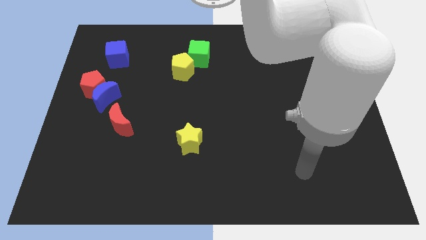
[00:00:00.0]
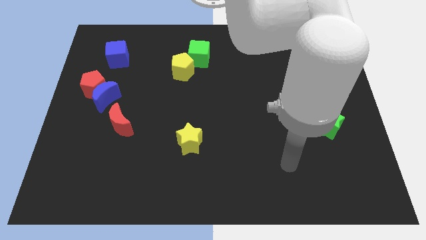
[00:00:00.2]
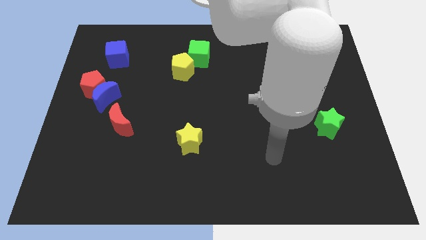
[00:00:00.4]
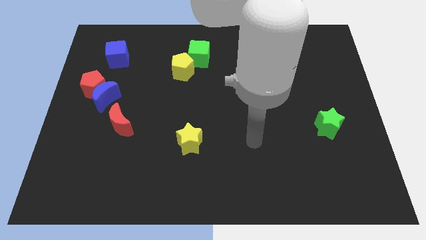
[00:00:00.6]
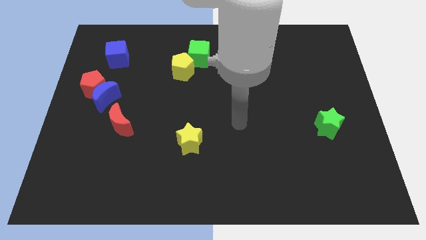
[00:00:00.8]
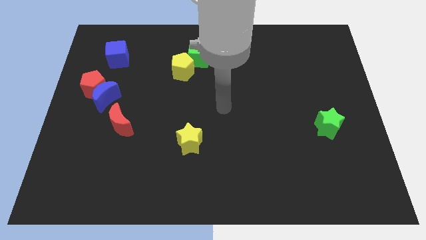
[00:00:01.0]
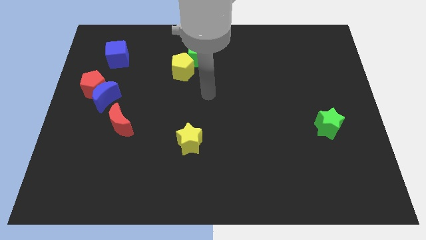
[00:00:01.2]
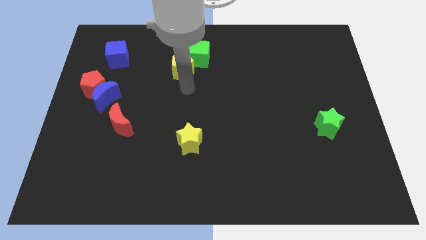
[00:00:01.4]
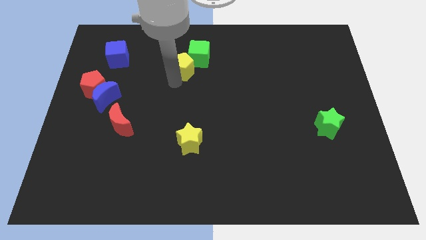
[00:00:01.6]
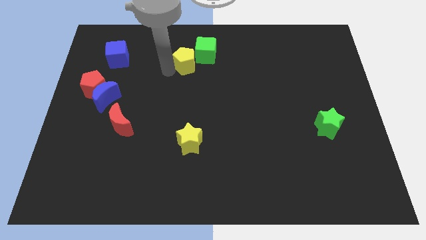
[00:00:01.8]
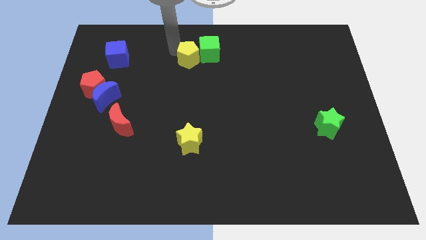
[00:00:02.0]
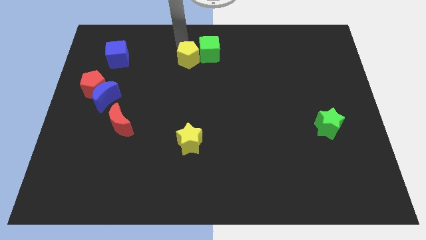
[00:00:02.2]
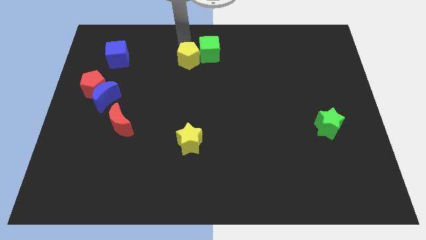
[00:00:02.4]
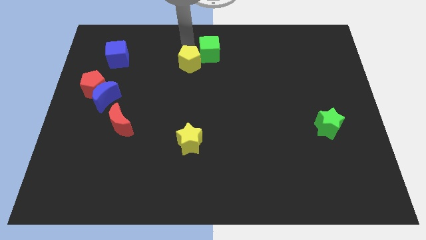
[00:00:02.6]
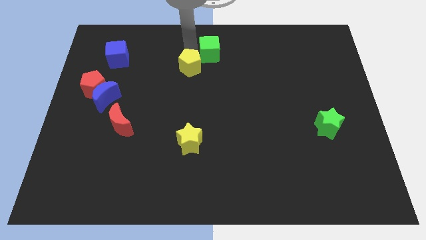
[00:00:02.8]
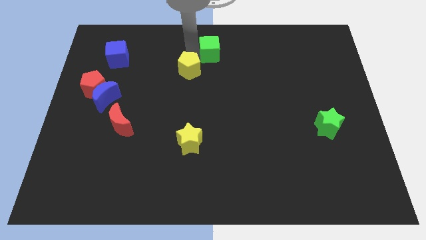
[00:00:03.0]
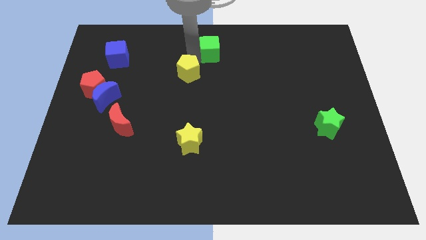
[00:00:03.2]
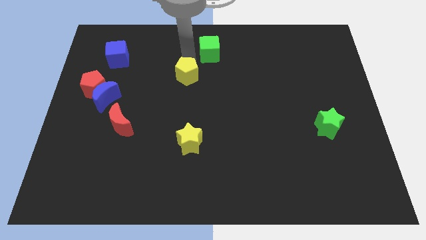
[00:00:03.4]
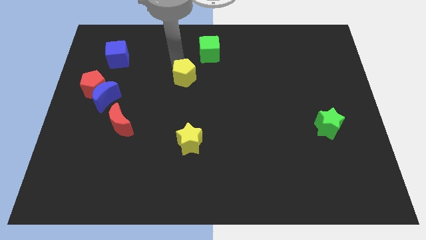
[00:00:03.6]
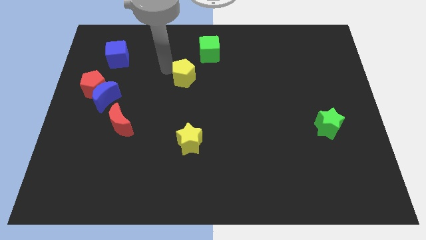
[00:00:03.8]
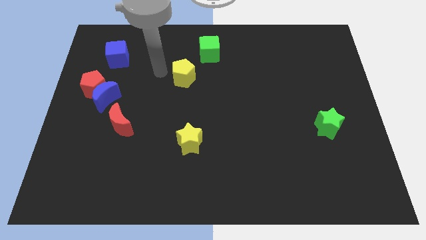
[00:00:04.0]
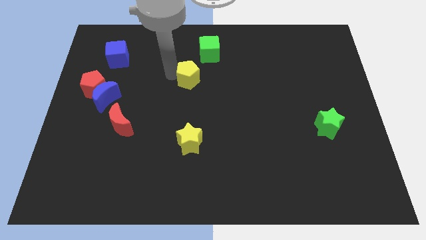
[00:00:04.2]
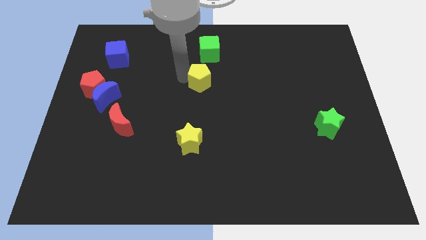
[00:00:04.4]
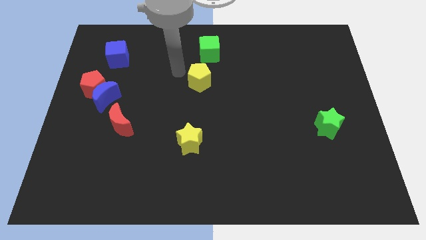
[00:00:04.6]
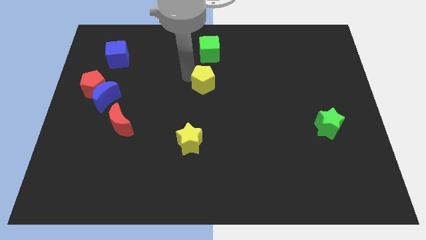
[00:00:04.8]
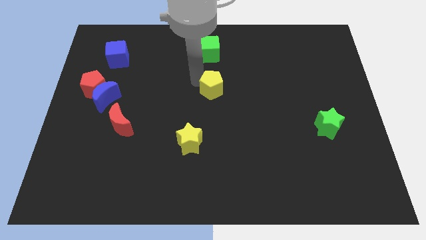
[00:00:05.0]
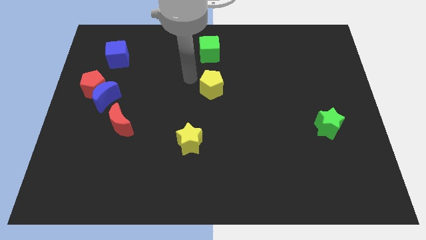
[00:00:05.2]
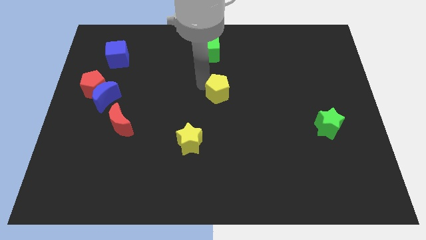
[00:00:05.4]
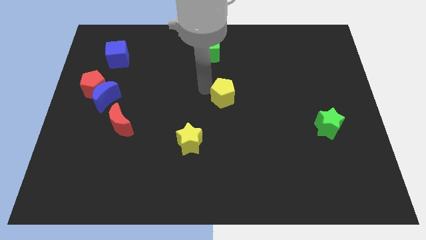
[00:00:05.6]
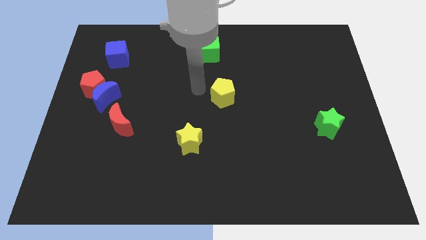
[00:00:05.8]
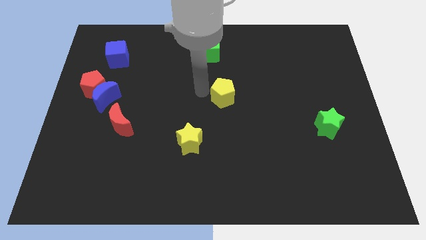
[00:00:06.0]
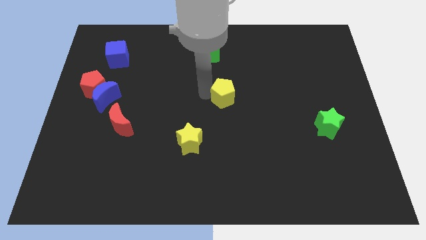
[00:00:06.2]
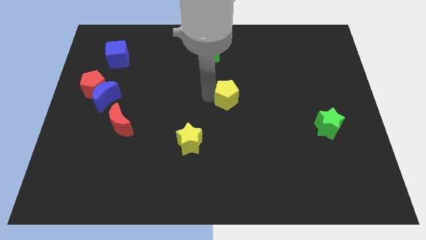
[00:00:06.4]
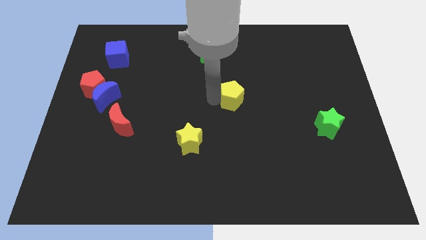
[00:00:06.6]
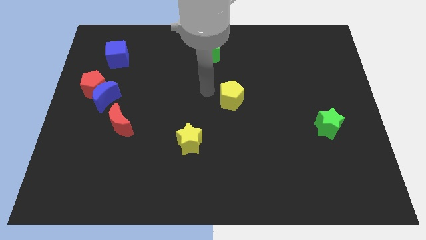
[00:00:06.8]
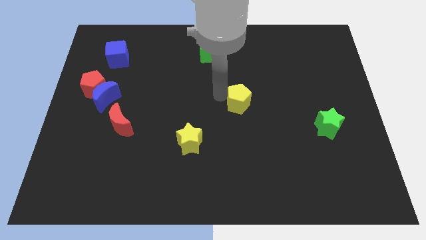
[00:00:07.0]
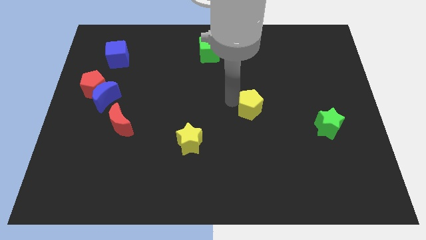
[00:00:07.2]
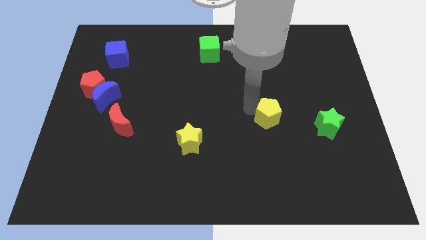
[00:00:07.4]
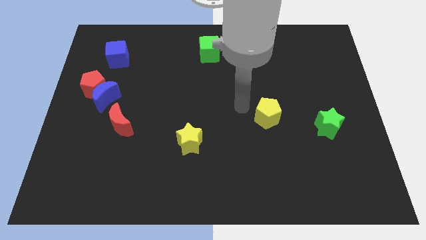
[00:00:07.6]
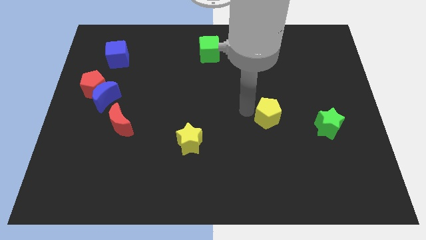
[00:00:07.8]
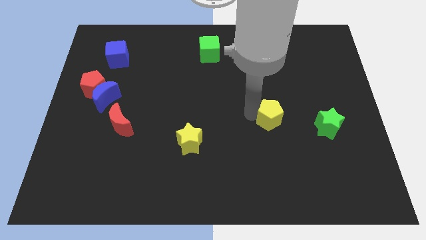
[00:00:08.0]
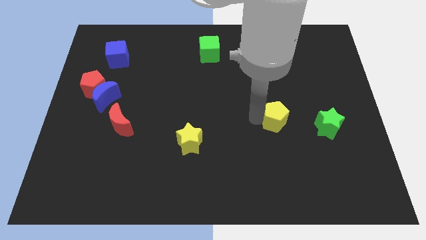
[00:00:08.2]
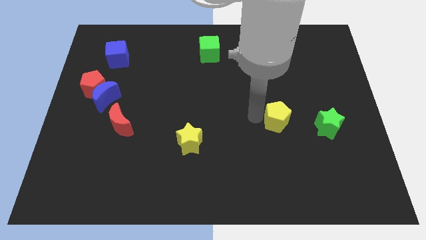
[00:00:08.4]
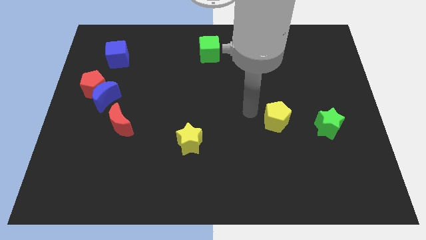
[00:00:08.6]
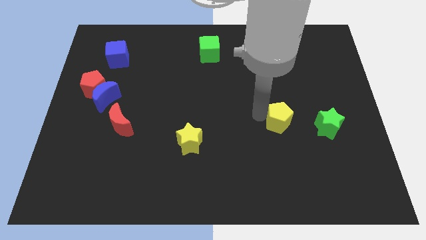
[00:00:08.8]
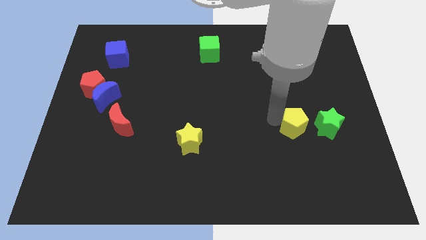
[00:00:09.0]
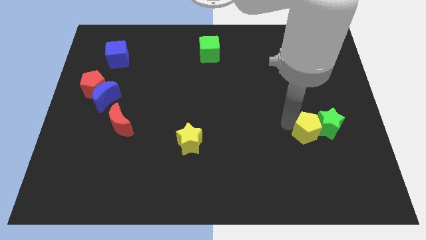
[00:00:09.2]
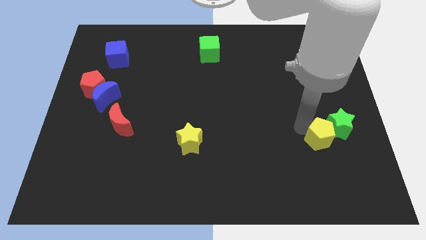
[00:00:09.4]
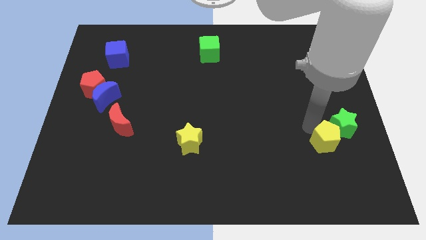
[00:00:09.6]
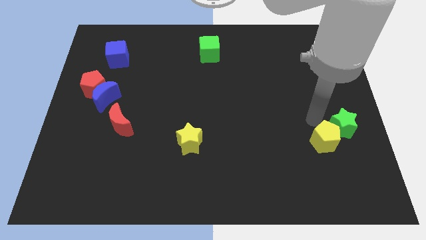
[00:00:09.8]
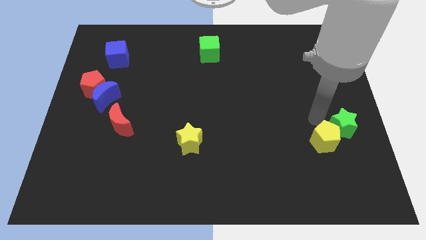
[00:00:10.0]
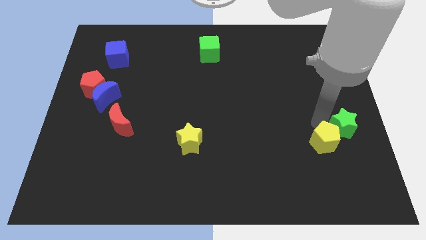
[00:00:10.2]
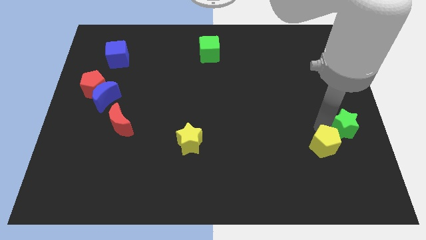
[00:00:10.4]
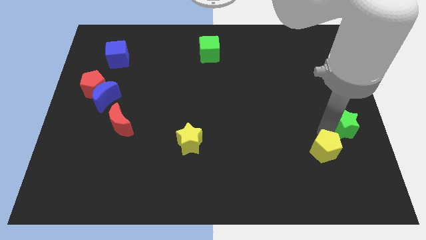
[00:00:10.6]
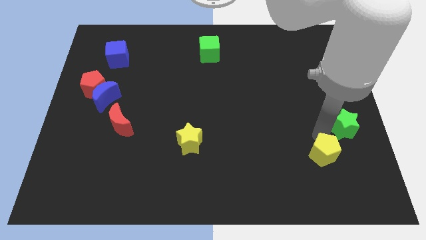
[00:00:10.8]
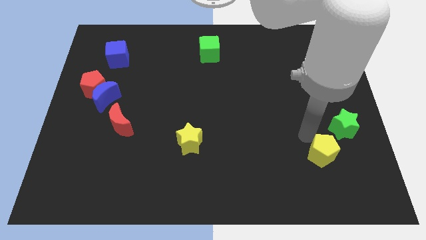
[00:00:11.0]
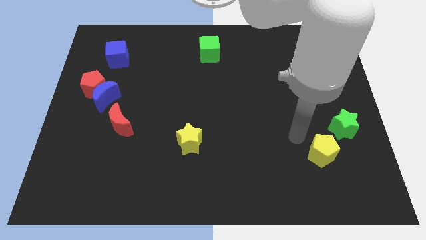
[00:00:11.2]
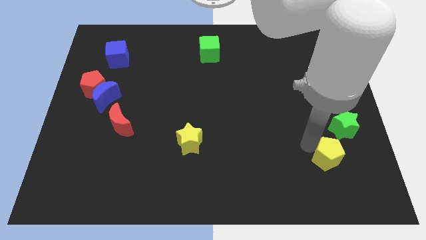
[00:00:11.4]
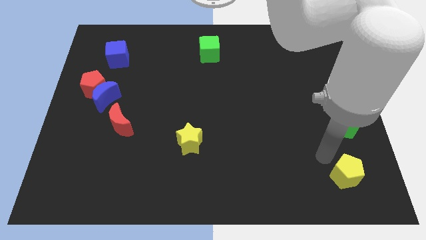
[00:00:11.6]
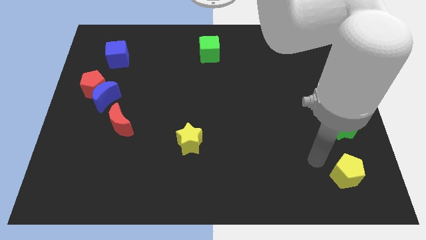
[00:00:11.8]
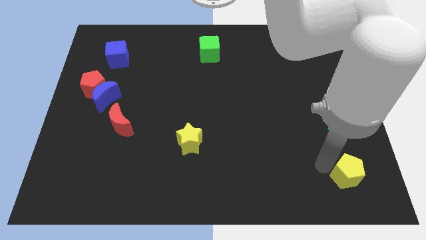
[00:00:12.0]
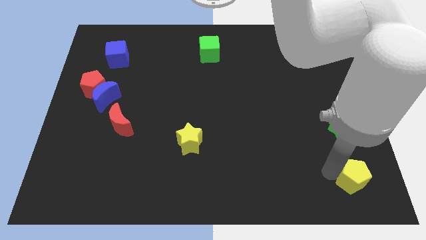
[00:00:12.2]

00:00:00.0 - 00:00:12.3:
put the yellow pentagon to the bottom right of the board

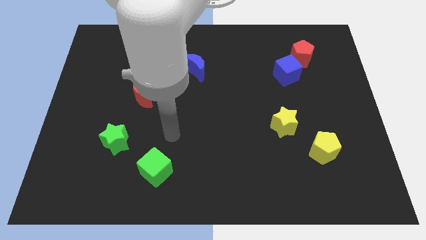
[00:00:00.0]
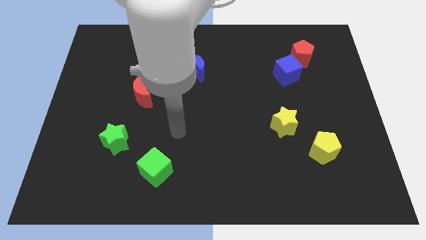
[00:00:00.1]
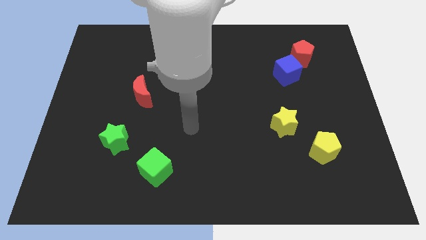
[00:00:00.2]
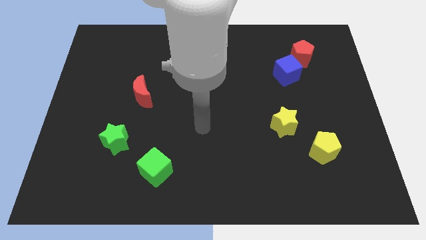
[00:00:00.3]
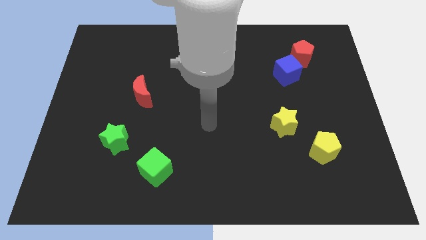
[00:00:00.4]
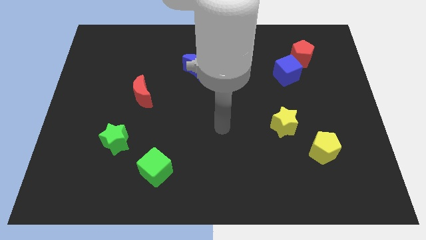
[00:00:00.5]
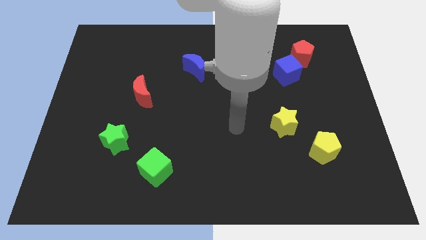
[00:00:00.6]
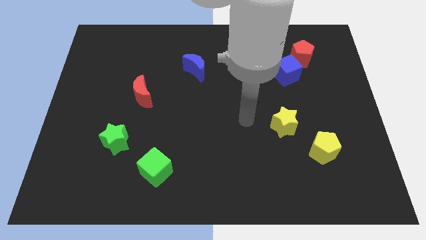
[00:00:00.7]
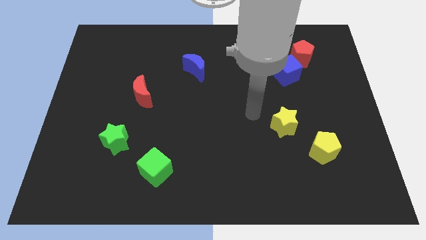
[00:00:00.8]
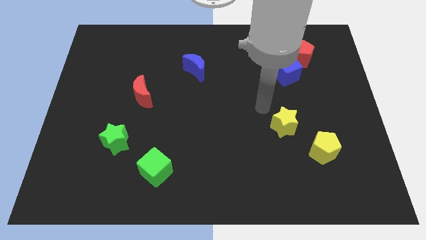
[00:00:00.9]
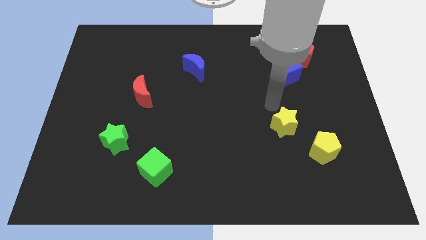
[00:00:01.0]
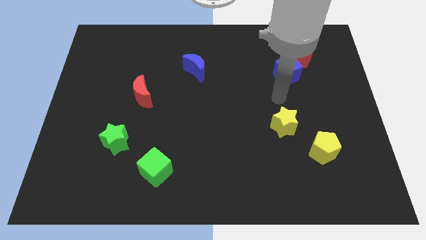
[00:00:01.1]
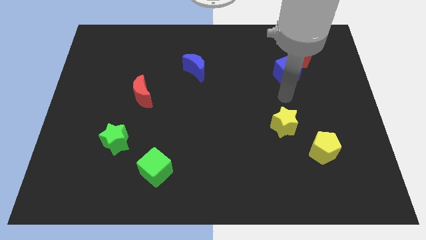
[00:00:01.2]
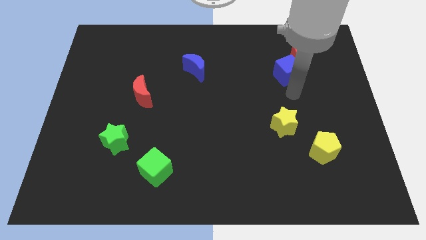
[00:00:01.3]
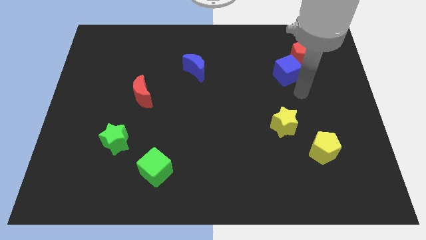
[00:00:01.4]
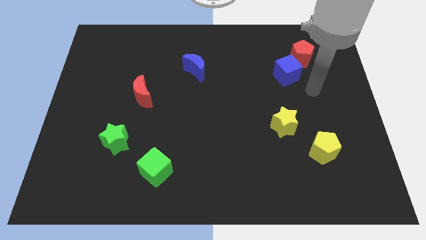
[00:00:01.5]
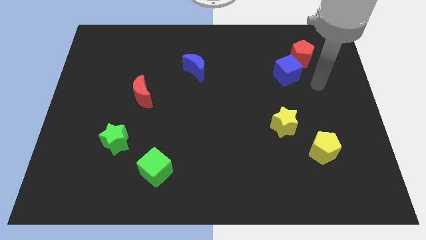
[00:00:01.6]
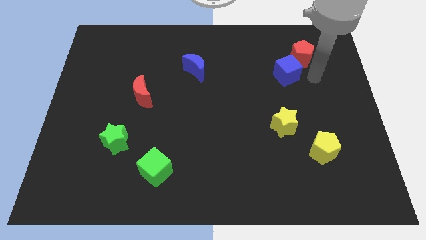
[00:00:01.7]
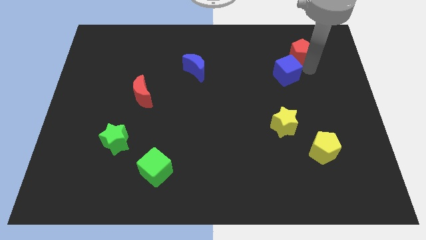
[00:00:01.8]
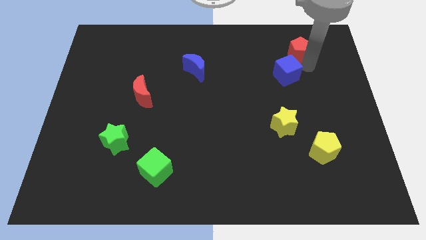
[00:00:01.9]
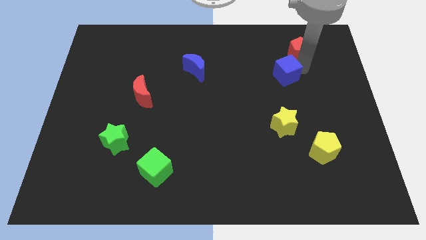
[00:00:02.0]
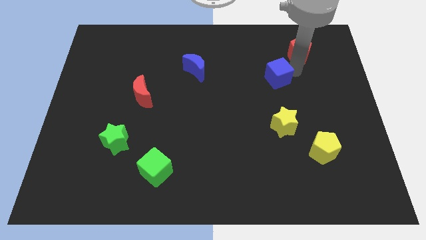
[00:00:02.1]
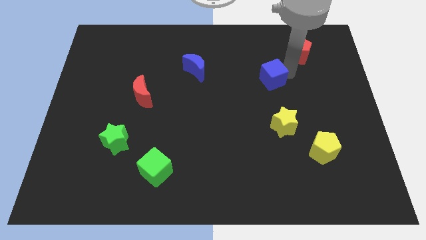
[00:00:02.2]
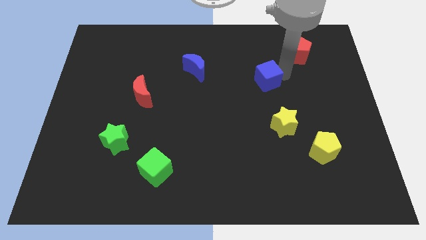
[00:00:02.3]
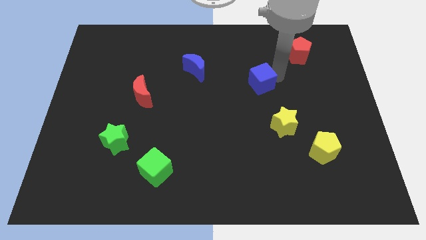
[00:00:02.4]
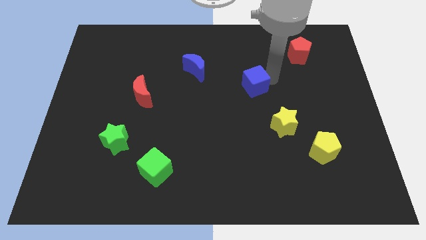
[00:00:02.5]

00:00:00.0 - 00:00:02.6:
slide the blue cube to the middle
